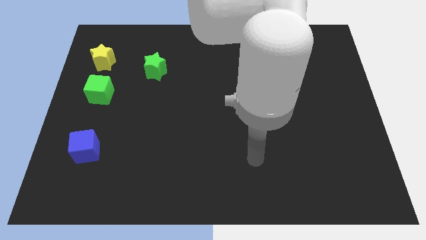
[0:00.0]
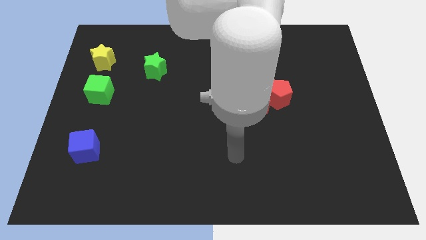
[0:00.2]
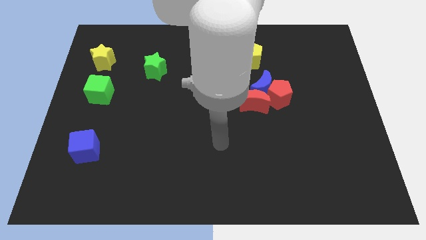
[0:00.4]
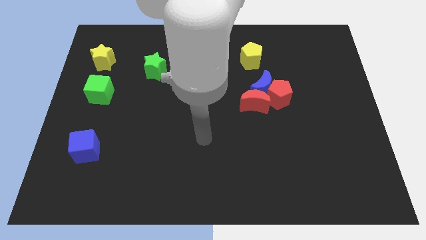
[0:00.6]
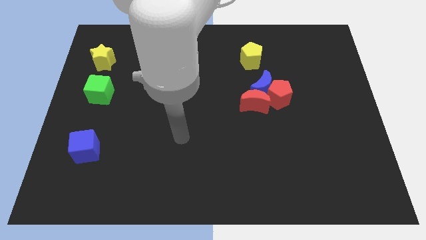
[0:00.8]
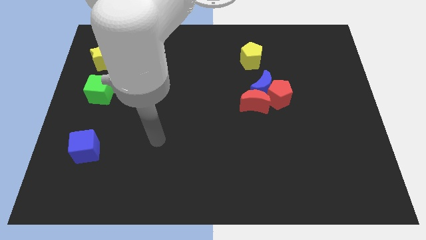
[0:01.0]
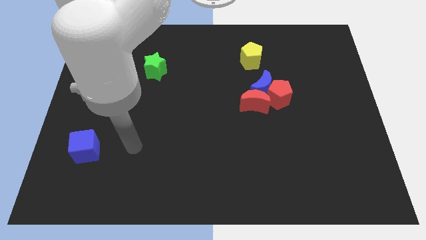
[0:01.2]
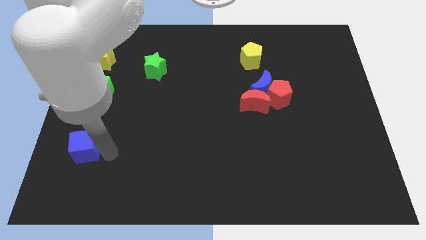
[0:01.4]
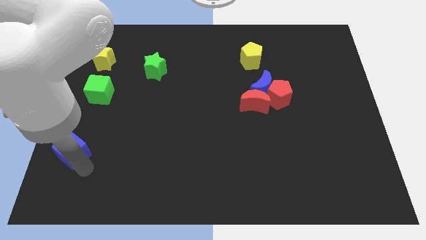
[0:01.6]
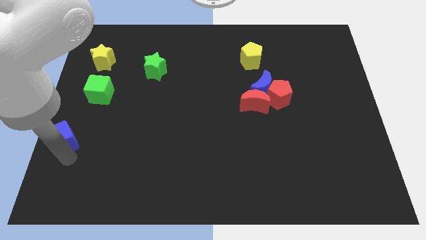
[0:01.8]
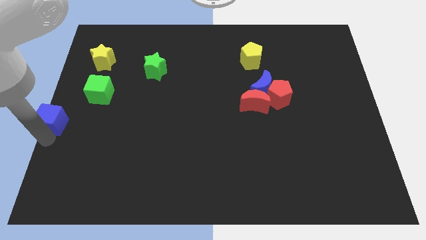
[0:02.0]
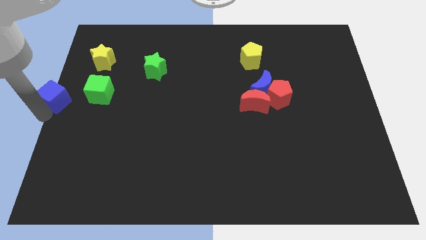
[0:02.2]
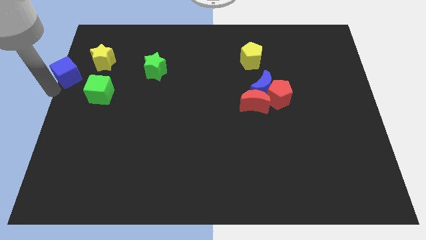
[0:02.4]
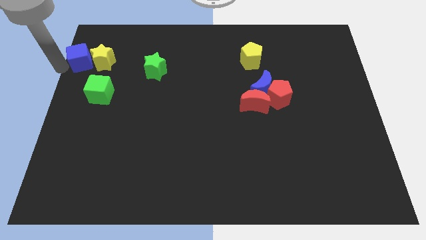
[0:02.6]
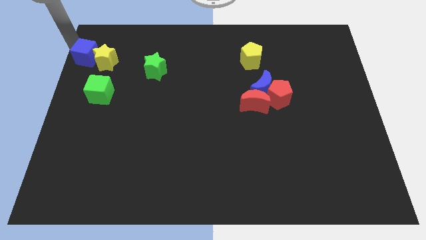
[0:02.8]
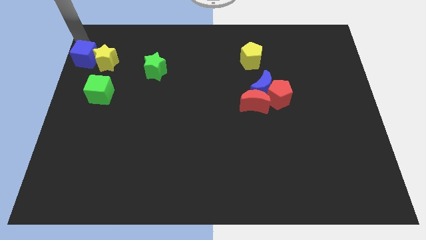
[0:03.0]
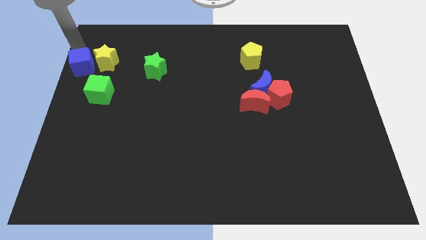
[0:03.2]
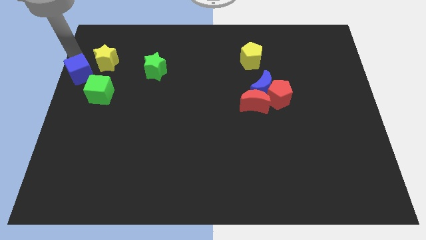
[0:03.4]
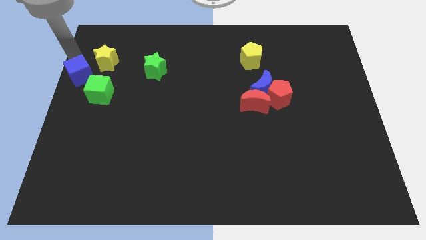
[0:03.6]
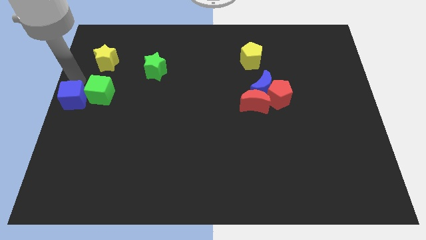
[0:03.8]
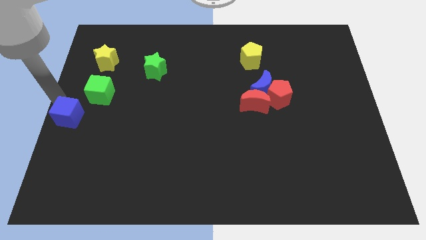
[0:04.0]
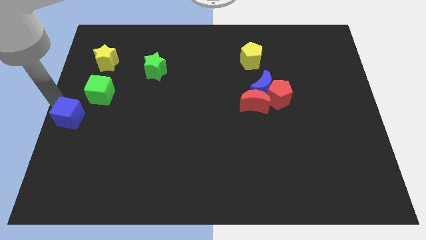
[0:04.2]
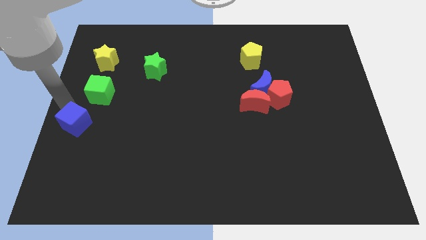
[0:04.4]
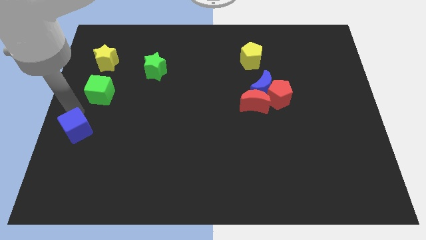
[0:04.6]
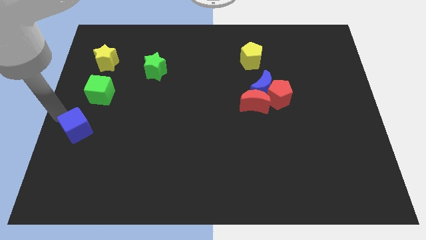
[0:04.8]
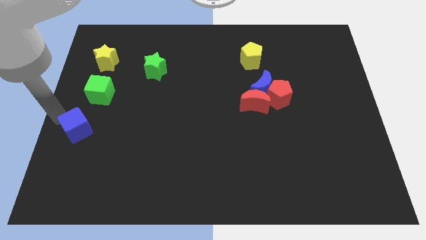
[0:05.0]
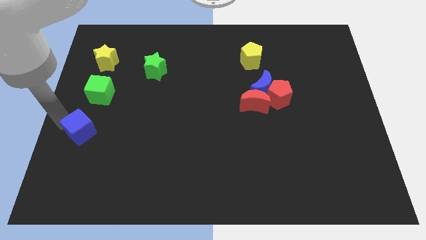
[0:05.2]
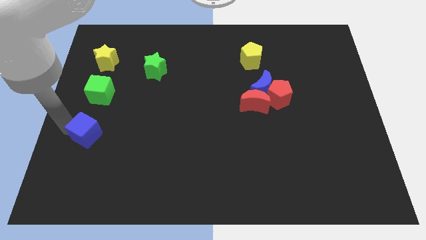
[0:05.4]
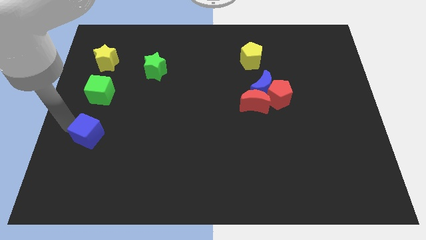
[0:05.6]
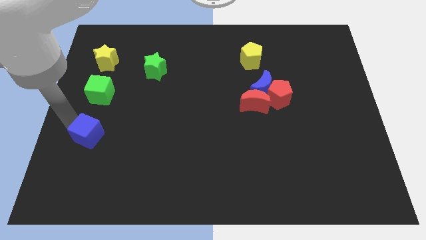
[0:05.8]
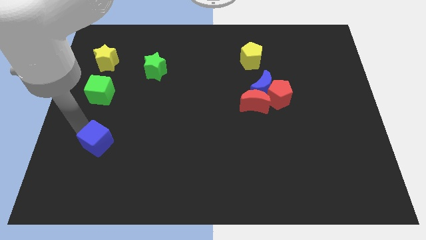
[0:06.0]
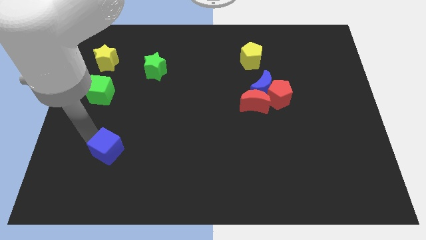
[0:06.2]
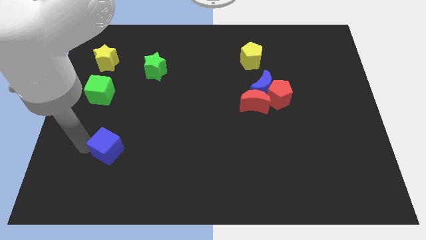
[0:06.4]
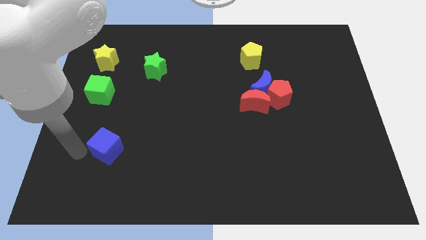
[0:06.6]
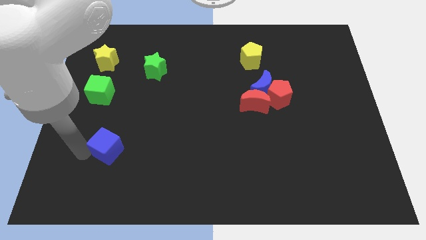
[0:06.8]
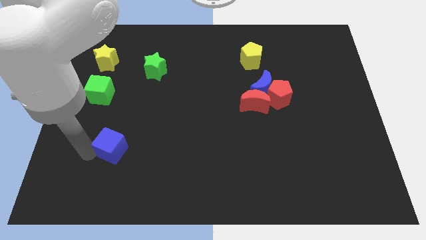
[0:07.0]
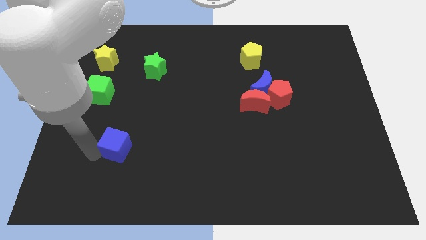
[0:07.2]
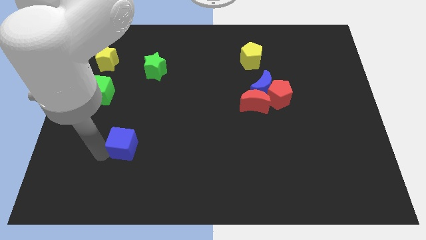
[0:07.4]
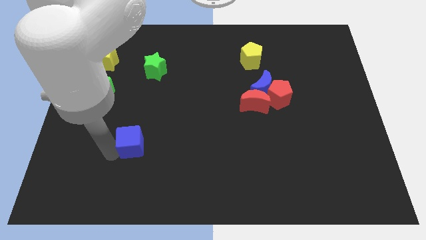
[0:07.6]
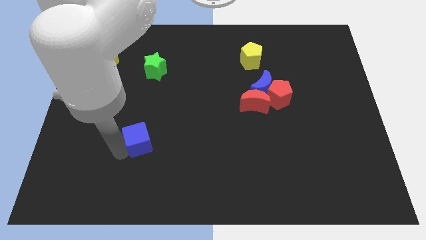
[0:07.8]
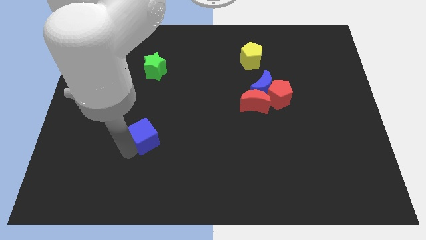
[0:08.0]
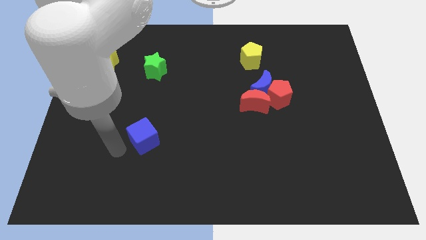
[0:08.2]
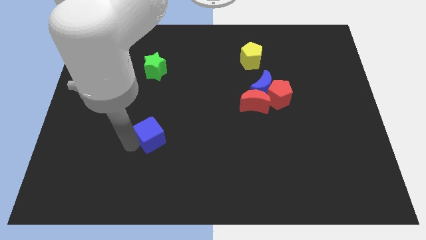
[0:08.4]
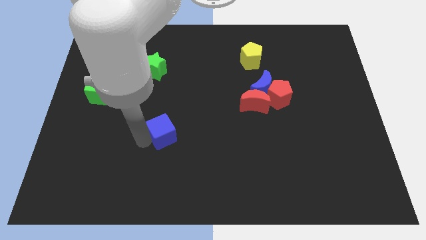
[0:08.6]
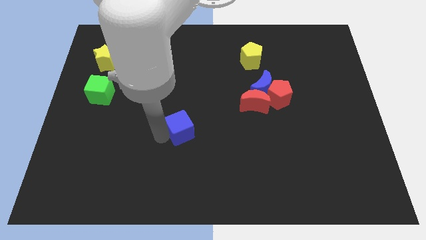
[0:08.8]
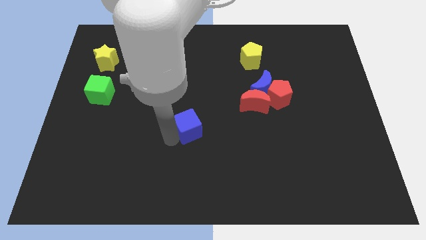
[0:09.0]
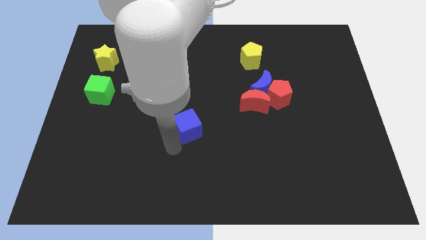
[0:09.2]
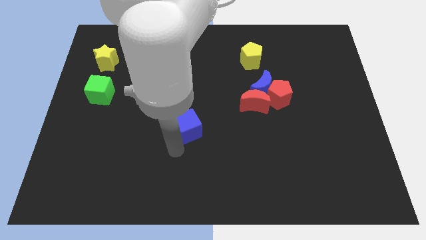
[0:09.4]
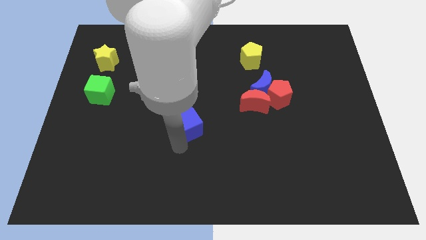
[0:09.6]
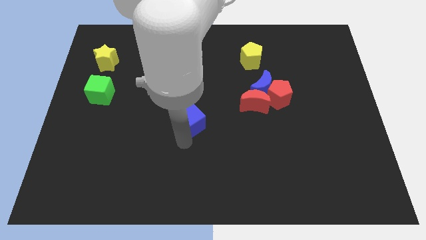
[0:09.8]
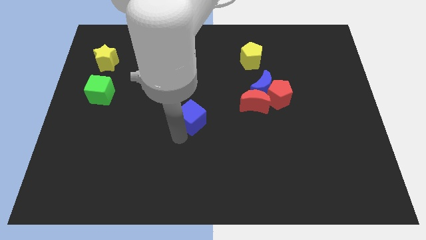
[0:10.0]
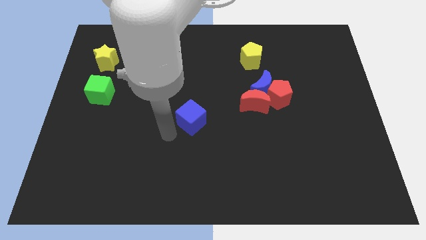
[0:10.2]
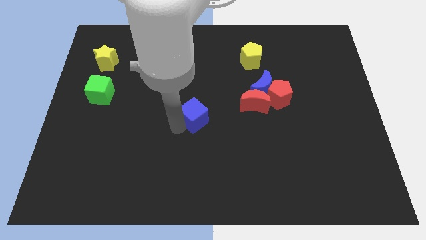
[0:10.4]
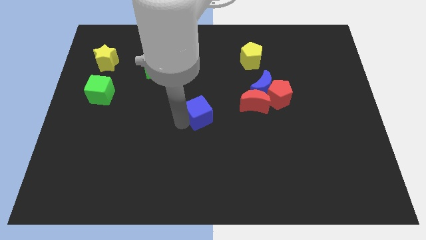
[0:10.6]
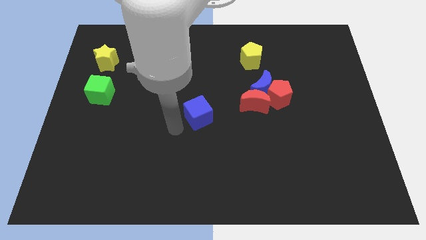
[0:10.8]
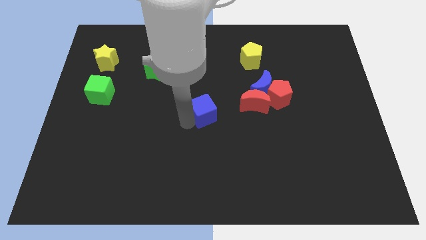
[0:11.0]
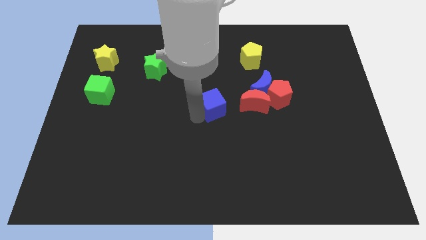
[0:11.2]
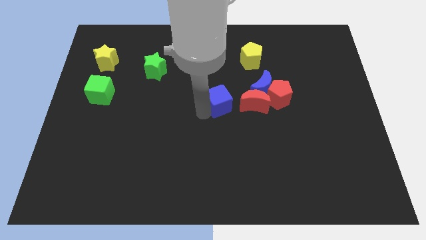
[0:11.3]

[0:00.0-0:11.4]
put the blue cube to the left side of the red pentagon

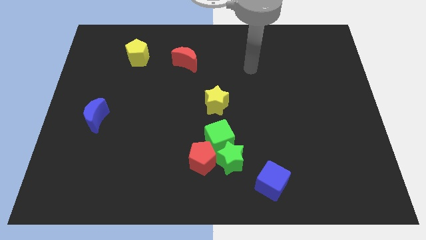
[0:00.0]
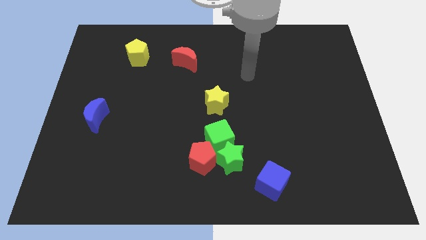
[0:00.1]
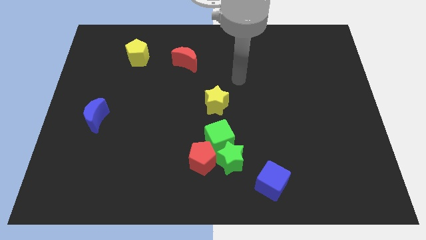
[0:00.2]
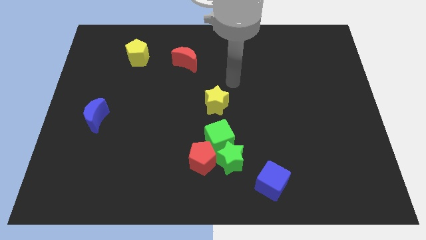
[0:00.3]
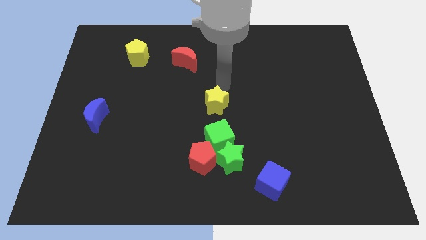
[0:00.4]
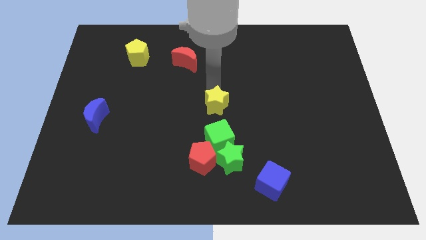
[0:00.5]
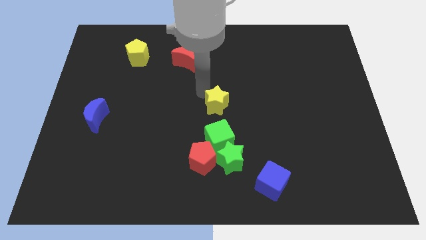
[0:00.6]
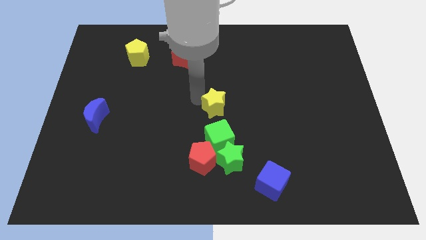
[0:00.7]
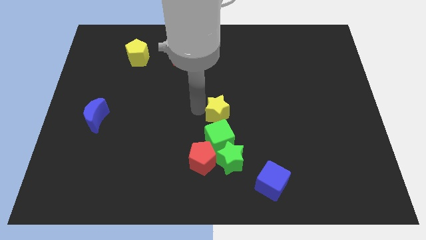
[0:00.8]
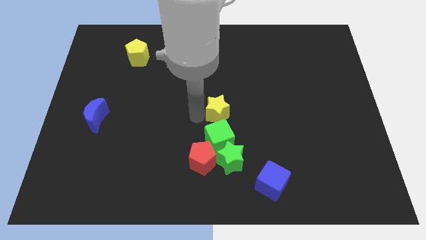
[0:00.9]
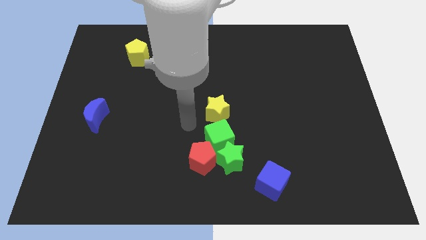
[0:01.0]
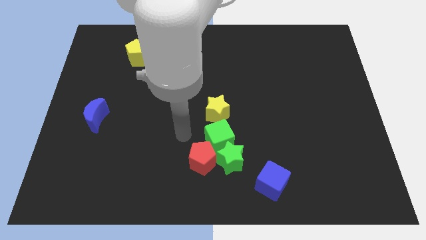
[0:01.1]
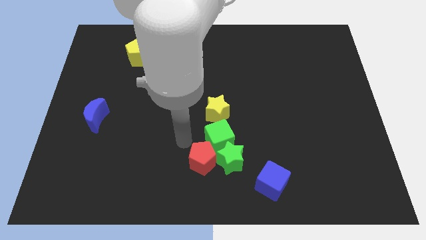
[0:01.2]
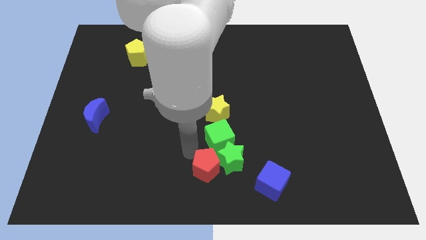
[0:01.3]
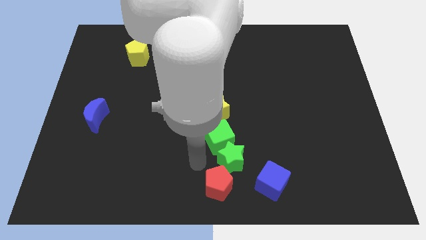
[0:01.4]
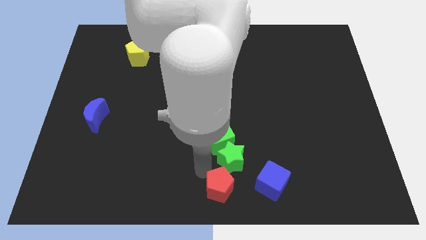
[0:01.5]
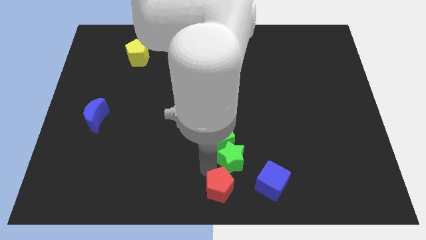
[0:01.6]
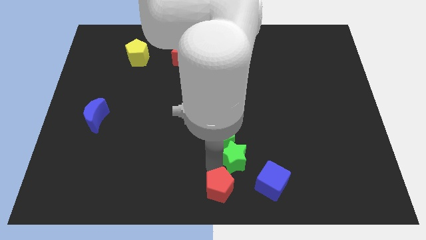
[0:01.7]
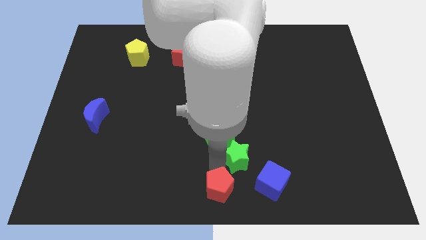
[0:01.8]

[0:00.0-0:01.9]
push the green star right of the green cube
